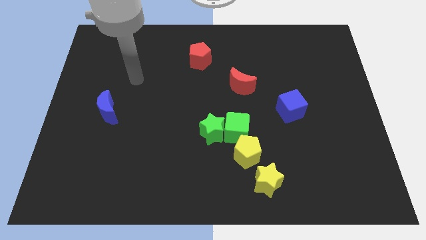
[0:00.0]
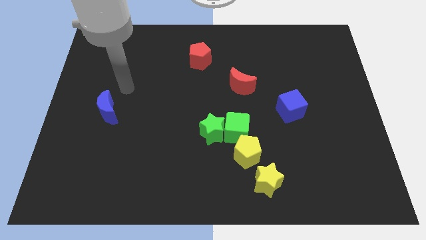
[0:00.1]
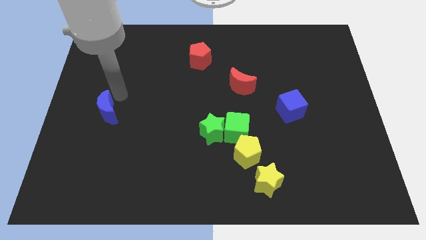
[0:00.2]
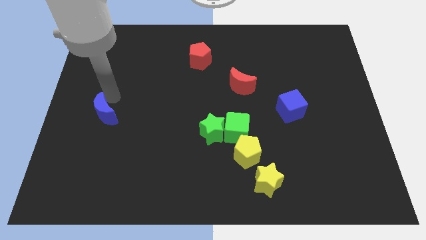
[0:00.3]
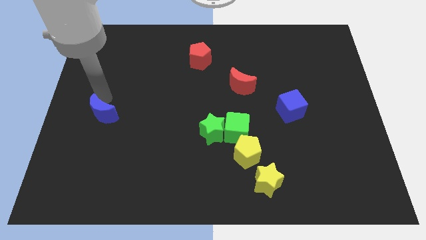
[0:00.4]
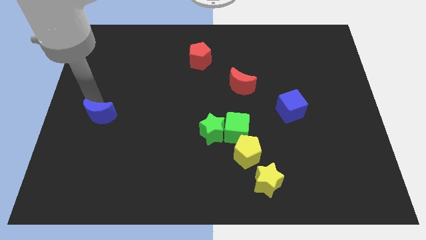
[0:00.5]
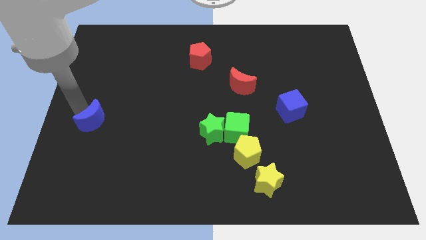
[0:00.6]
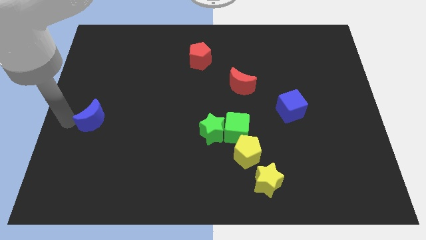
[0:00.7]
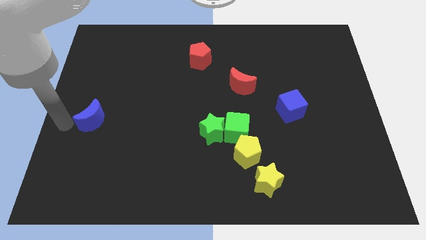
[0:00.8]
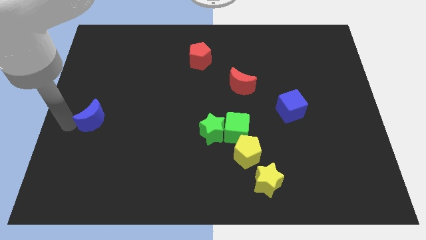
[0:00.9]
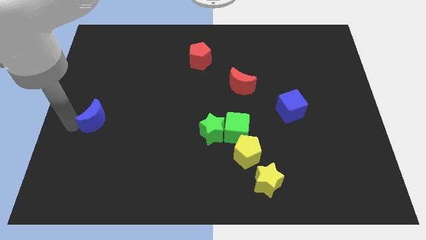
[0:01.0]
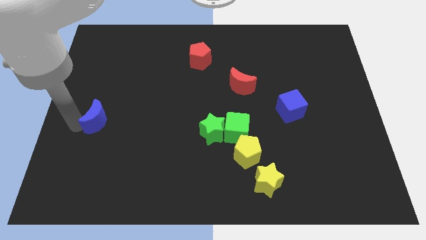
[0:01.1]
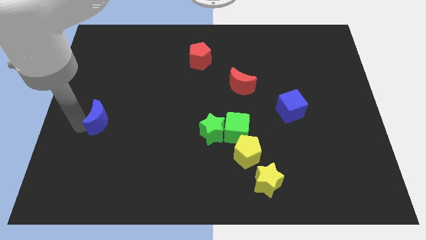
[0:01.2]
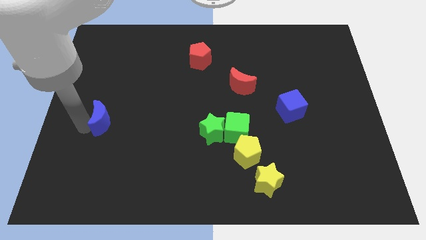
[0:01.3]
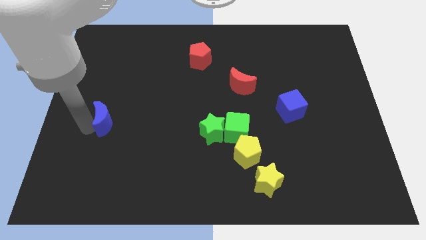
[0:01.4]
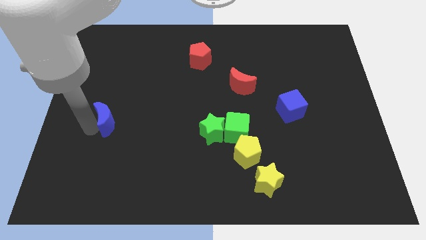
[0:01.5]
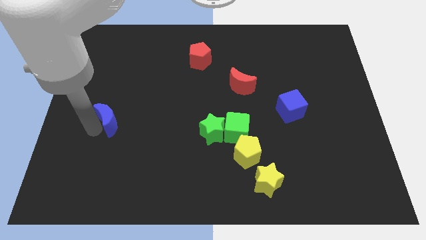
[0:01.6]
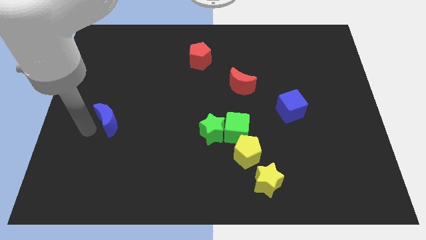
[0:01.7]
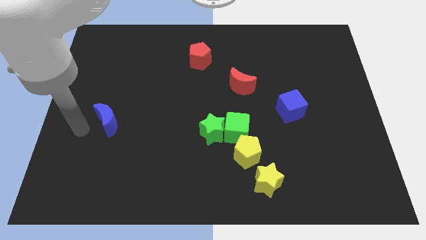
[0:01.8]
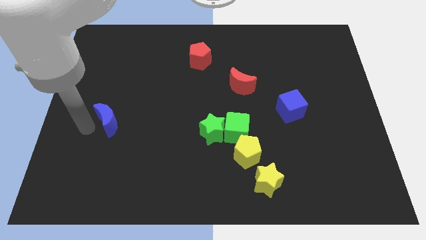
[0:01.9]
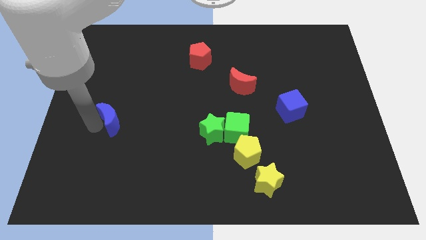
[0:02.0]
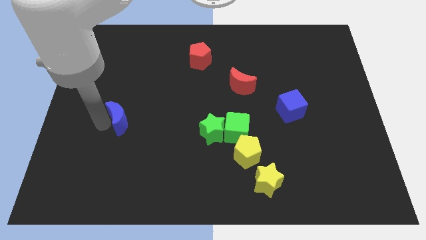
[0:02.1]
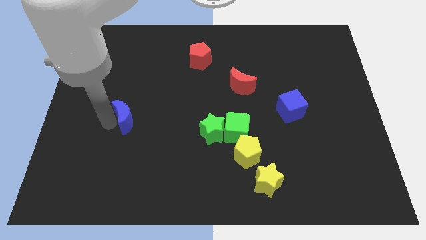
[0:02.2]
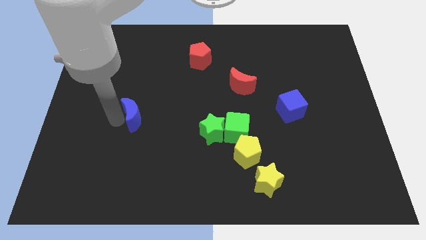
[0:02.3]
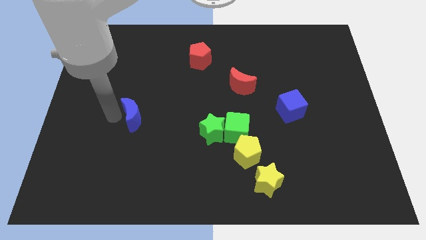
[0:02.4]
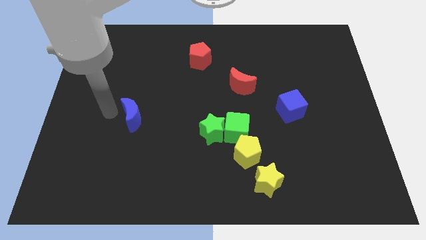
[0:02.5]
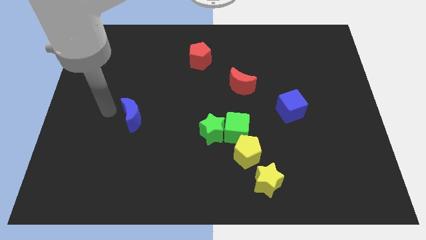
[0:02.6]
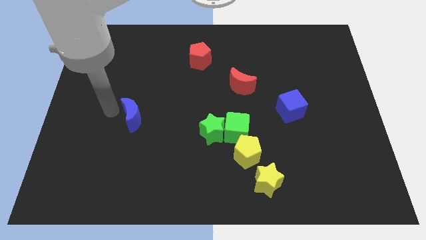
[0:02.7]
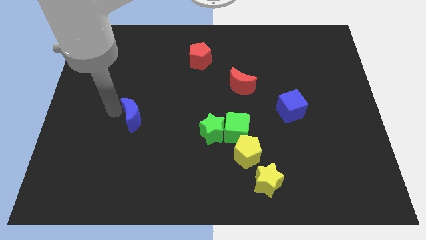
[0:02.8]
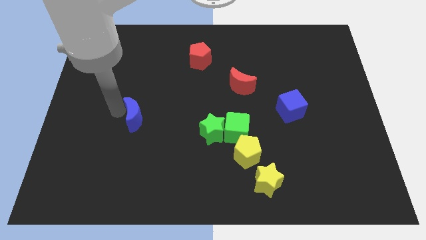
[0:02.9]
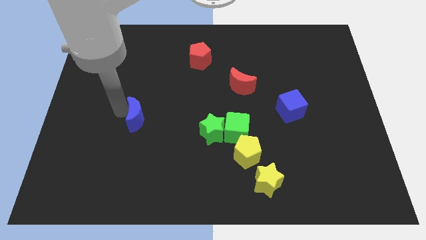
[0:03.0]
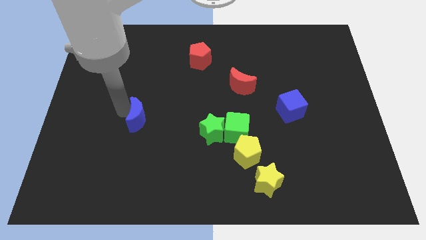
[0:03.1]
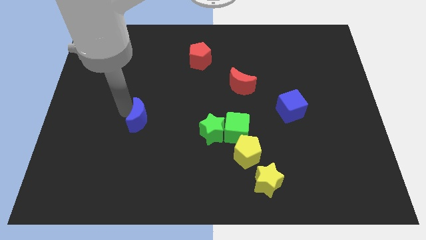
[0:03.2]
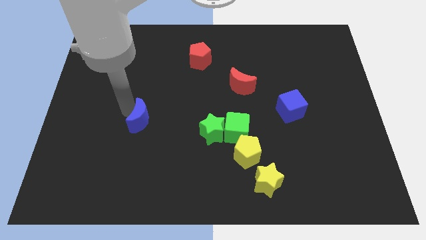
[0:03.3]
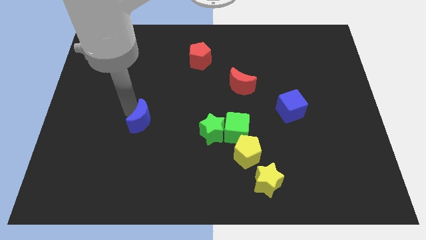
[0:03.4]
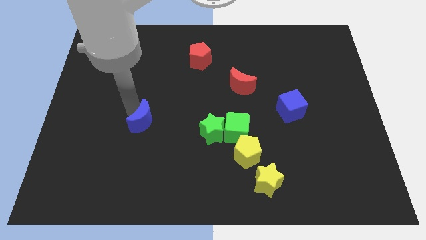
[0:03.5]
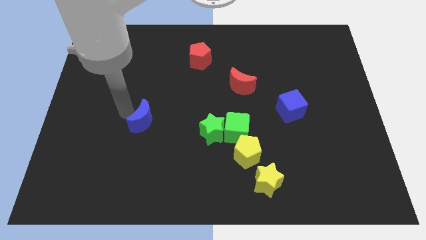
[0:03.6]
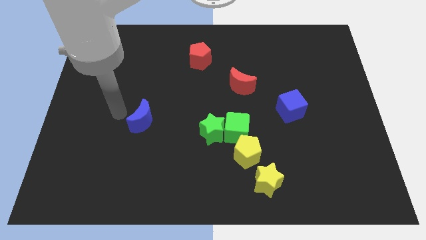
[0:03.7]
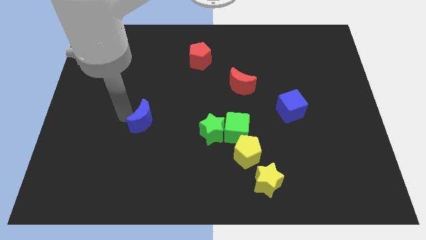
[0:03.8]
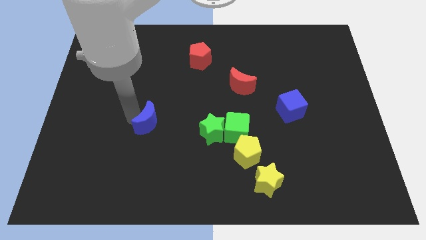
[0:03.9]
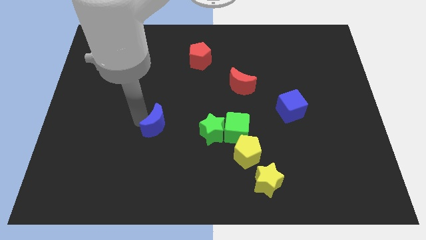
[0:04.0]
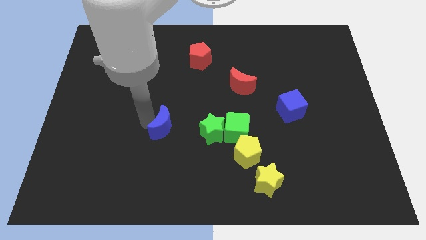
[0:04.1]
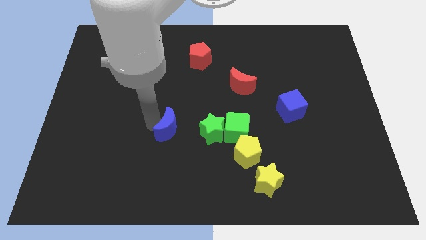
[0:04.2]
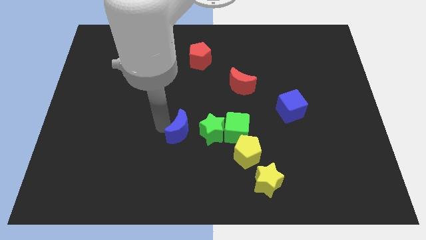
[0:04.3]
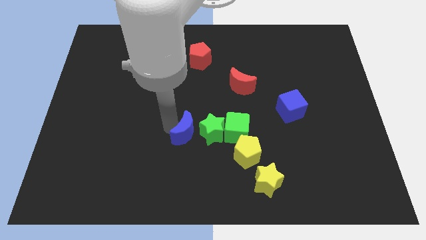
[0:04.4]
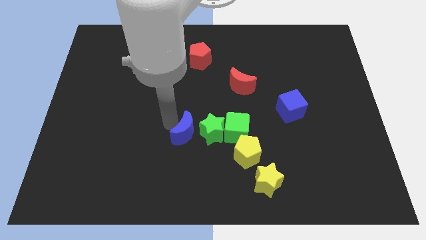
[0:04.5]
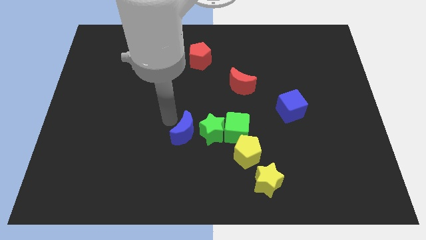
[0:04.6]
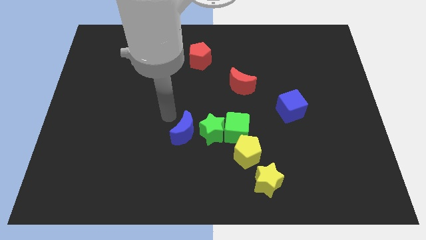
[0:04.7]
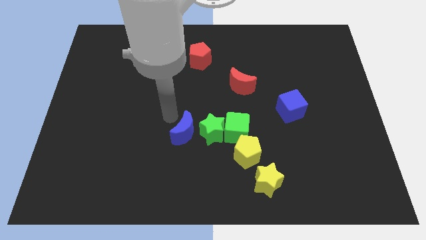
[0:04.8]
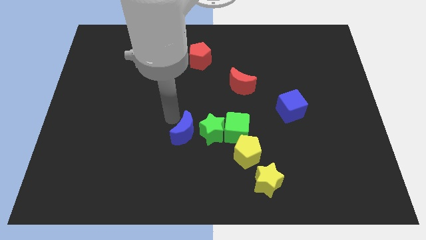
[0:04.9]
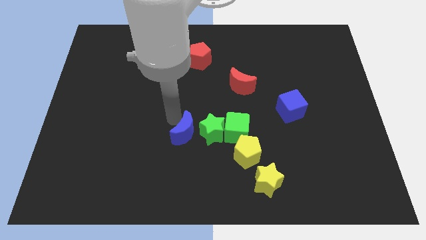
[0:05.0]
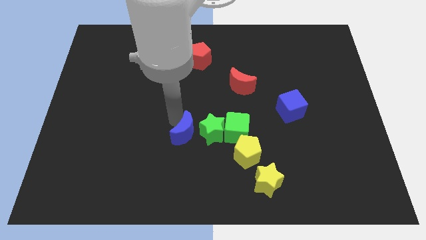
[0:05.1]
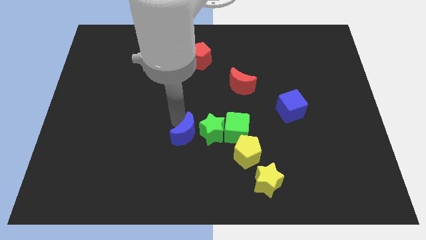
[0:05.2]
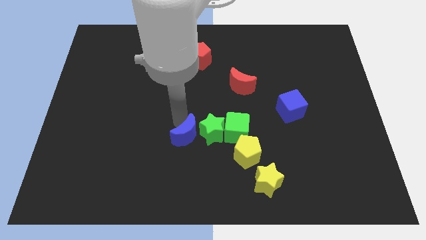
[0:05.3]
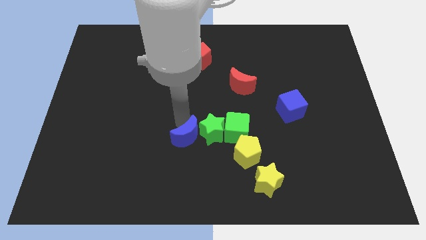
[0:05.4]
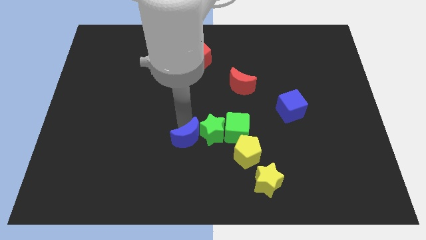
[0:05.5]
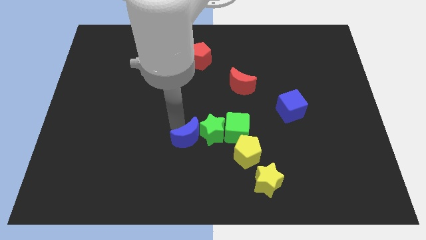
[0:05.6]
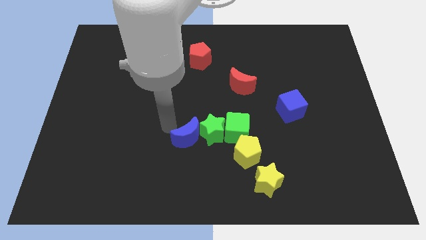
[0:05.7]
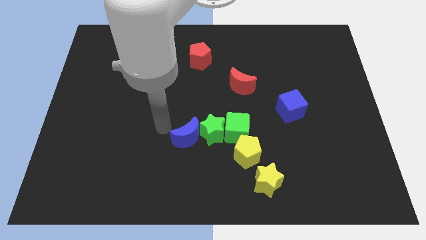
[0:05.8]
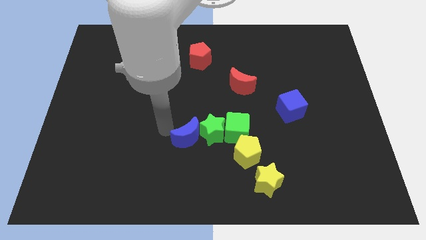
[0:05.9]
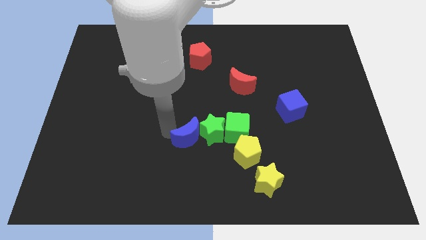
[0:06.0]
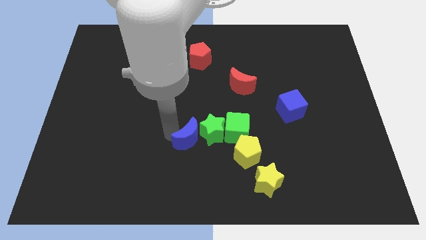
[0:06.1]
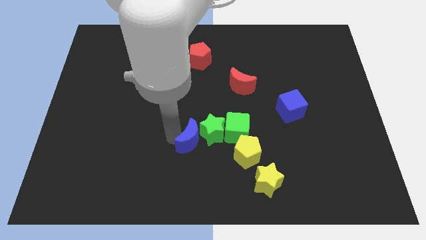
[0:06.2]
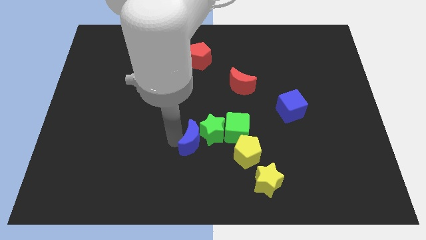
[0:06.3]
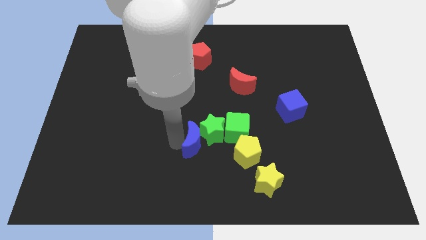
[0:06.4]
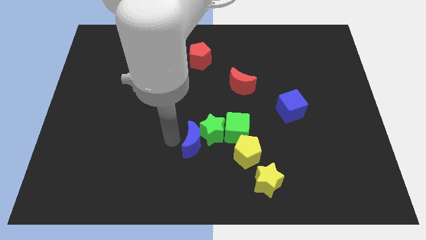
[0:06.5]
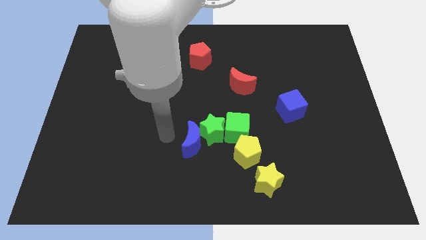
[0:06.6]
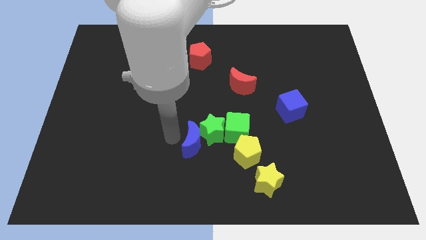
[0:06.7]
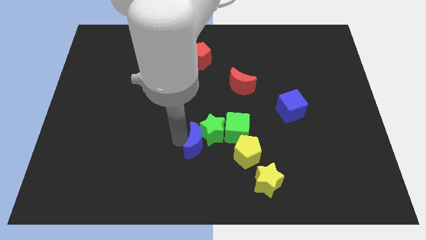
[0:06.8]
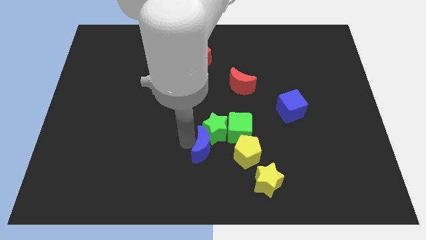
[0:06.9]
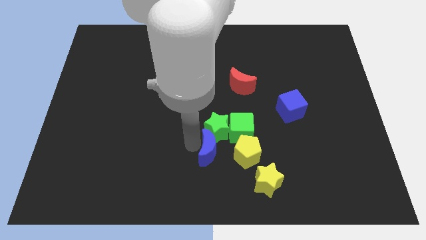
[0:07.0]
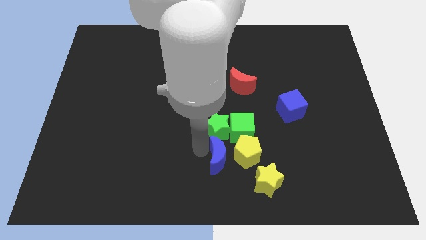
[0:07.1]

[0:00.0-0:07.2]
slide the blue moon next to the yellow pentagon

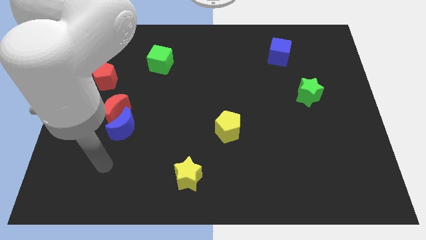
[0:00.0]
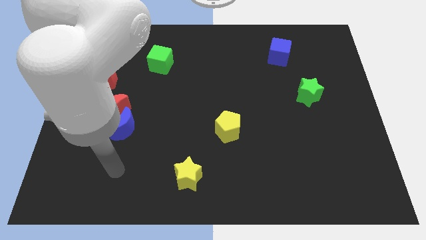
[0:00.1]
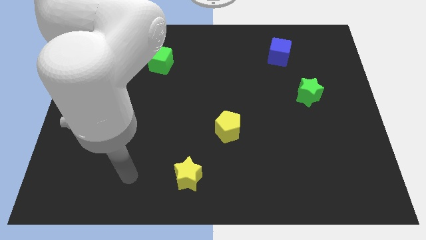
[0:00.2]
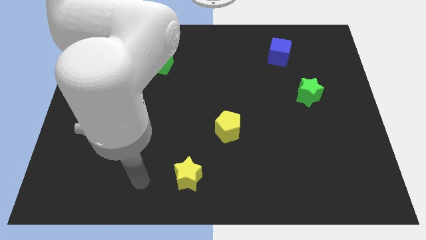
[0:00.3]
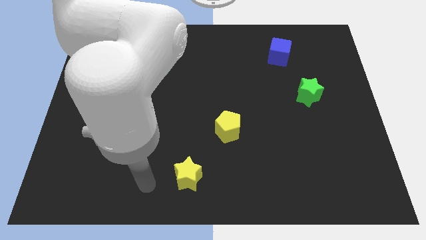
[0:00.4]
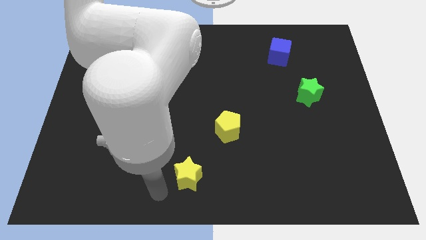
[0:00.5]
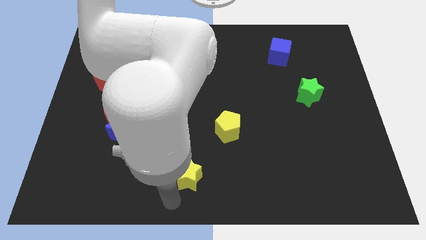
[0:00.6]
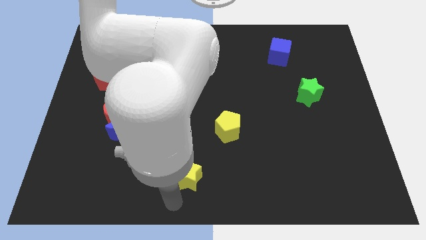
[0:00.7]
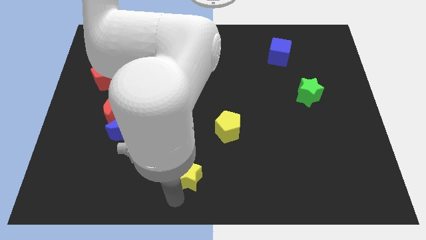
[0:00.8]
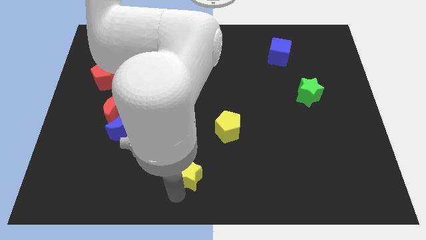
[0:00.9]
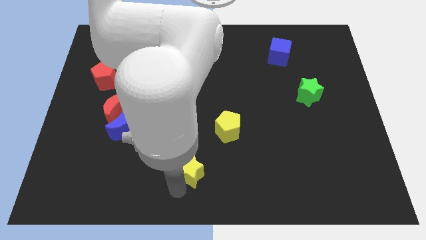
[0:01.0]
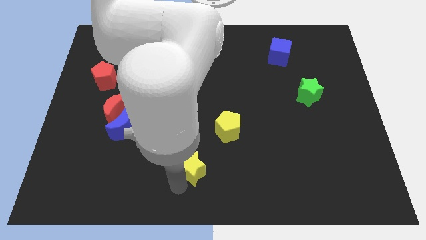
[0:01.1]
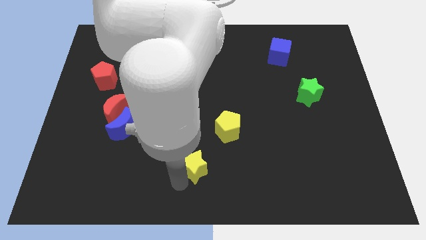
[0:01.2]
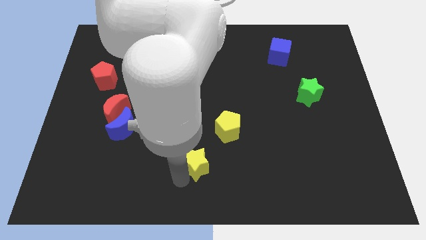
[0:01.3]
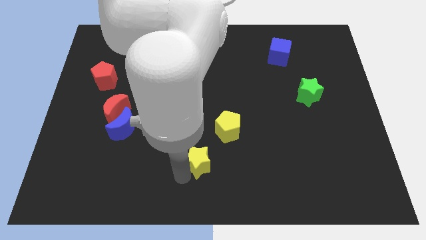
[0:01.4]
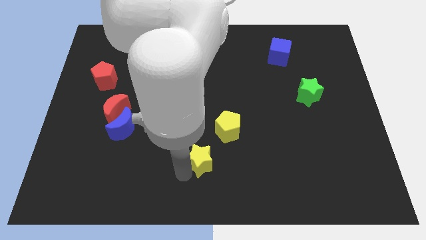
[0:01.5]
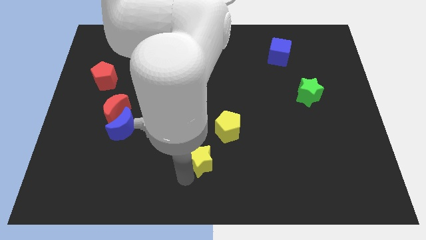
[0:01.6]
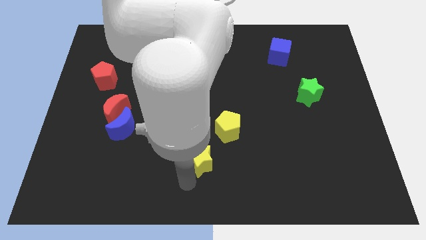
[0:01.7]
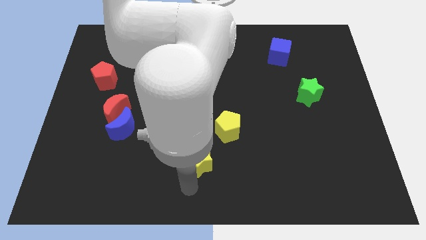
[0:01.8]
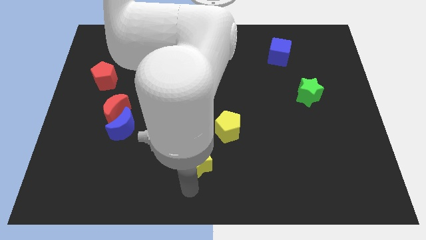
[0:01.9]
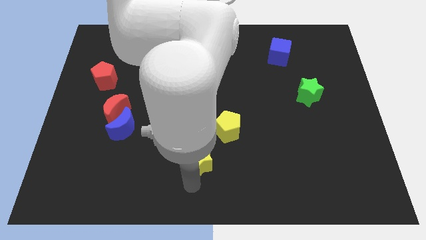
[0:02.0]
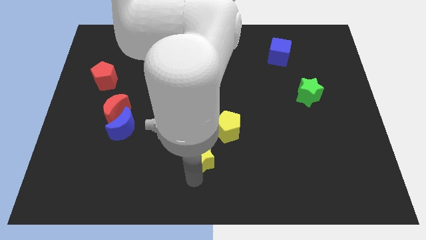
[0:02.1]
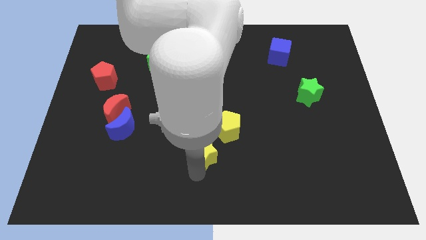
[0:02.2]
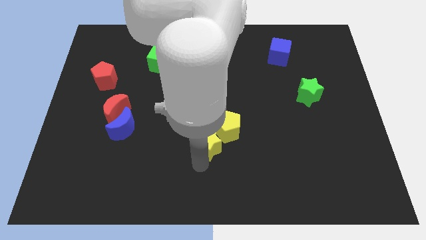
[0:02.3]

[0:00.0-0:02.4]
put the yellow star to the yellow pentagon
